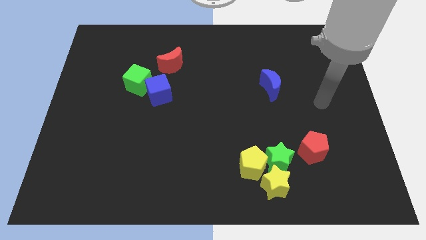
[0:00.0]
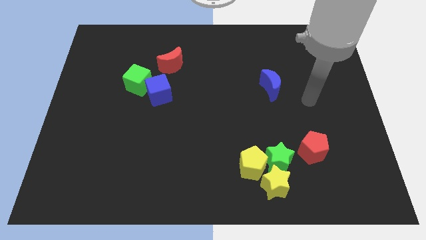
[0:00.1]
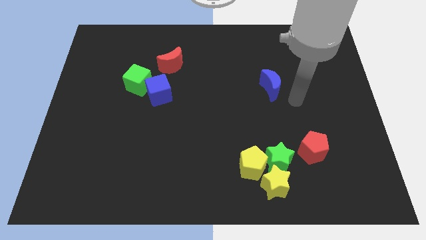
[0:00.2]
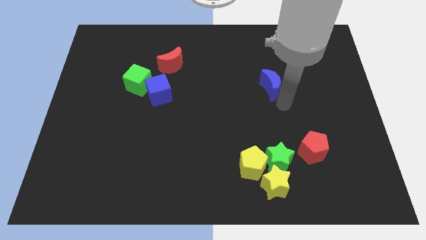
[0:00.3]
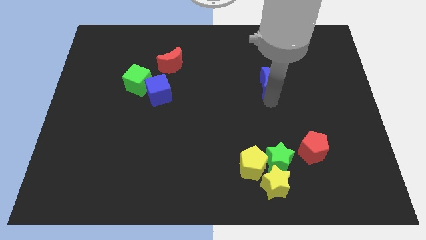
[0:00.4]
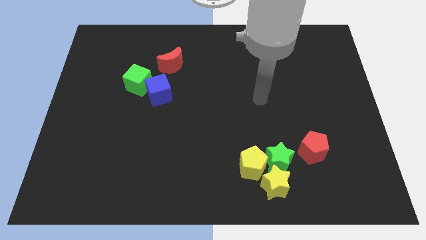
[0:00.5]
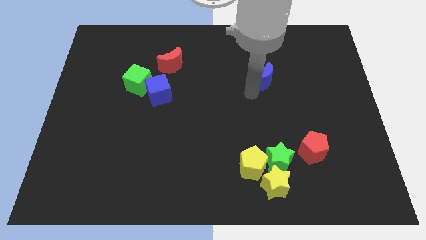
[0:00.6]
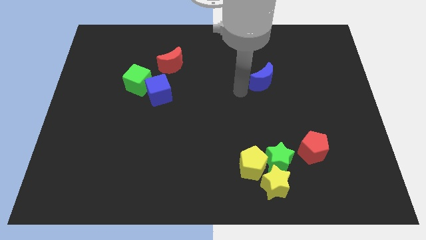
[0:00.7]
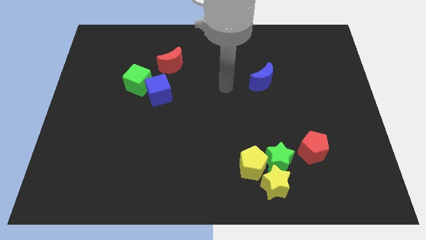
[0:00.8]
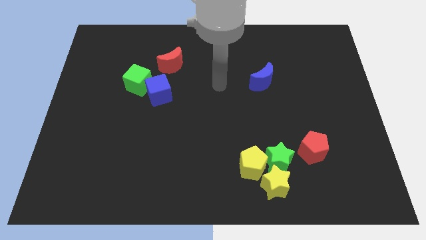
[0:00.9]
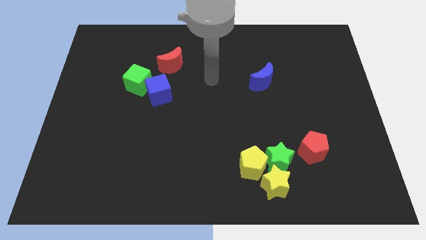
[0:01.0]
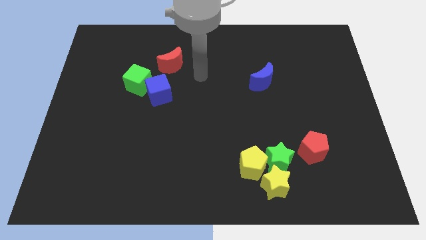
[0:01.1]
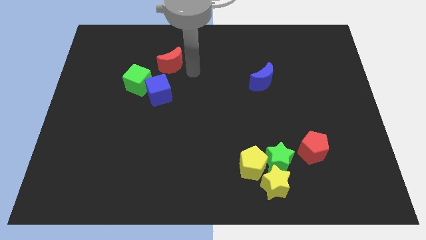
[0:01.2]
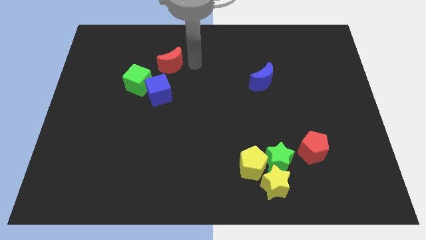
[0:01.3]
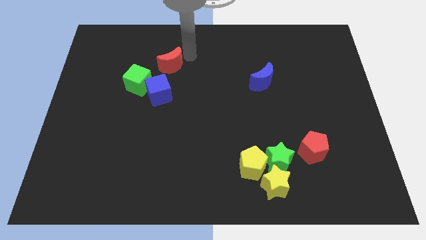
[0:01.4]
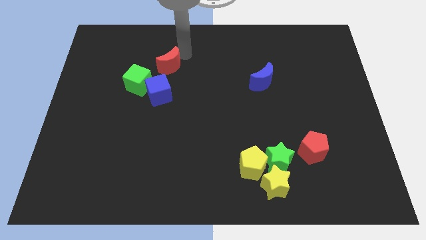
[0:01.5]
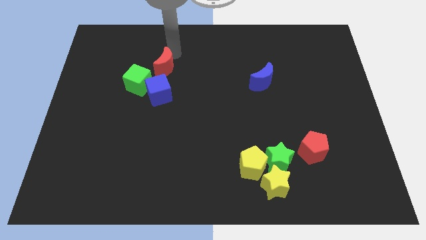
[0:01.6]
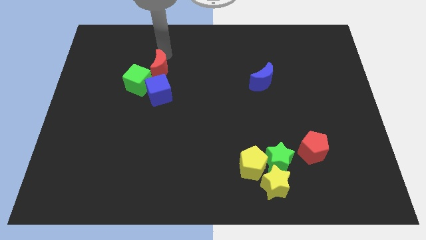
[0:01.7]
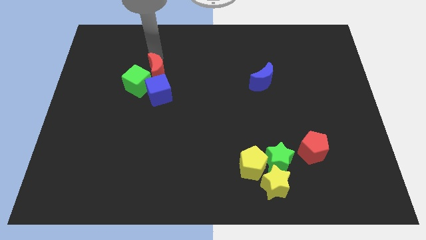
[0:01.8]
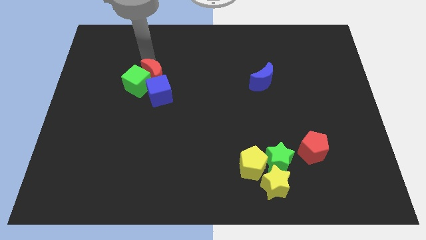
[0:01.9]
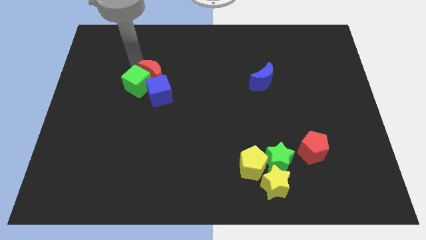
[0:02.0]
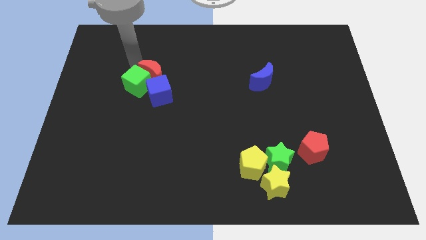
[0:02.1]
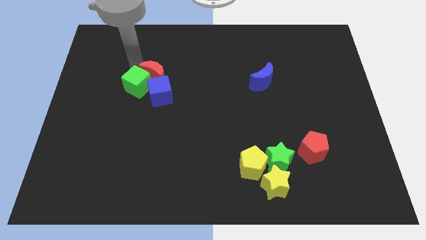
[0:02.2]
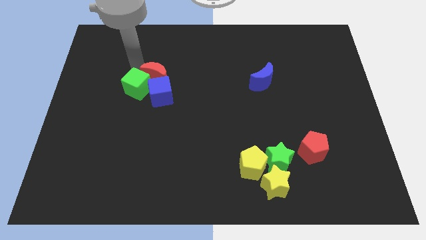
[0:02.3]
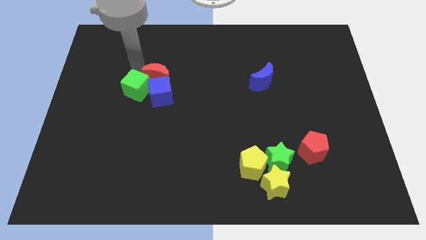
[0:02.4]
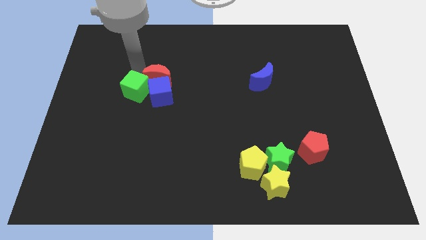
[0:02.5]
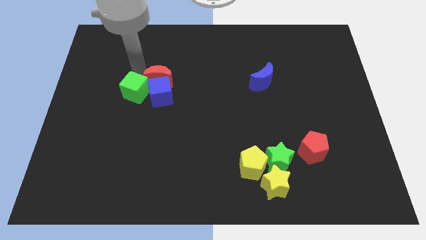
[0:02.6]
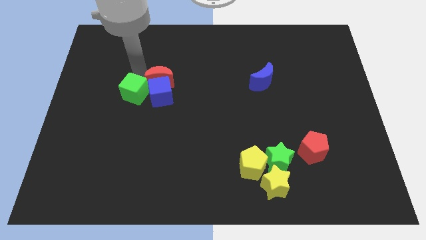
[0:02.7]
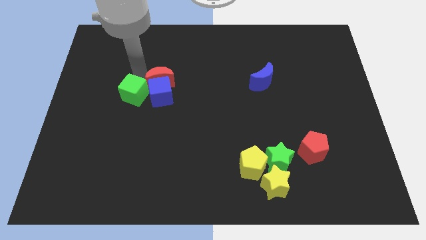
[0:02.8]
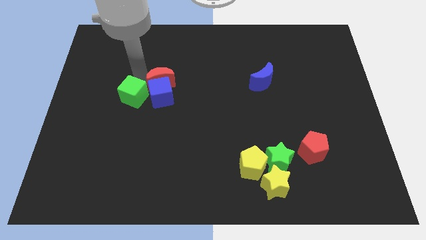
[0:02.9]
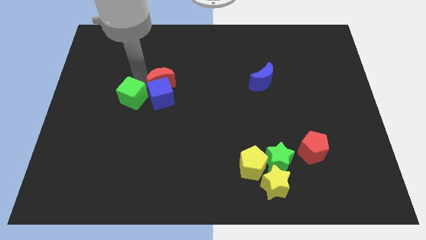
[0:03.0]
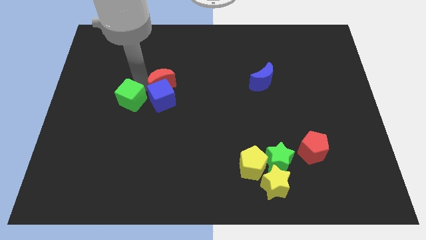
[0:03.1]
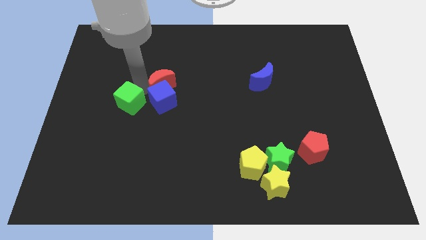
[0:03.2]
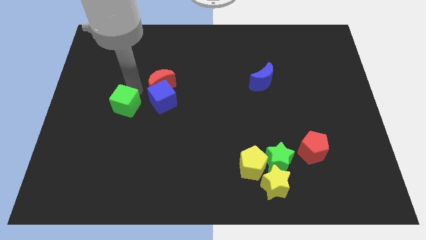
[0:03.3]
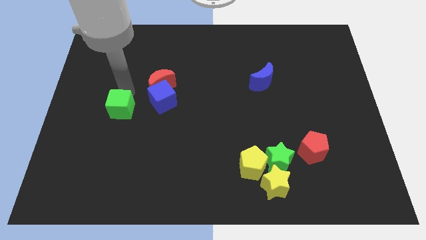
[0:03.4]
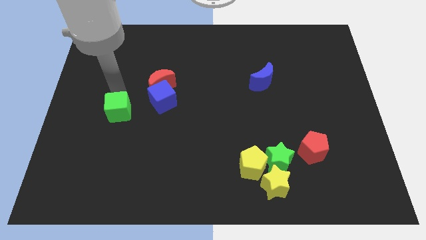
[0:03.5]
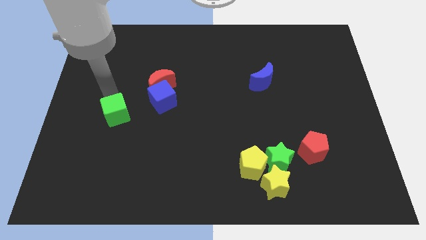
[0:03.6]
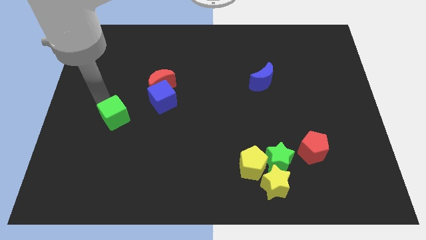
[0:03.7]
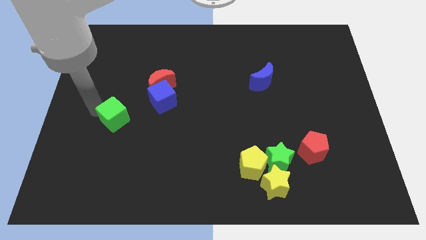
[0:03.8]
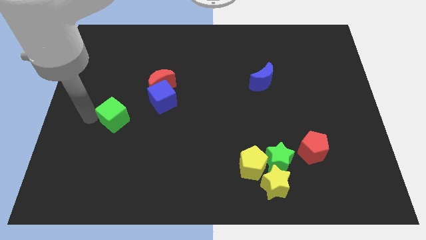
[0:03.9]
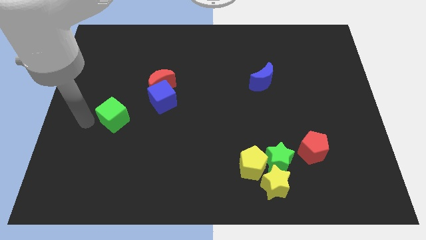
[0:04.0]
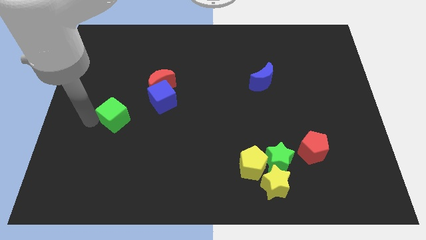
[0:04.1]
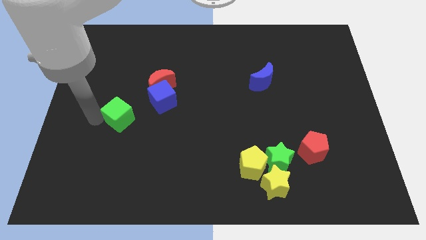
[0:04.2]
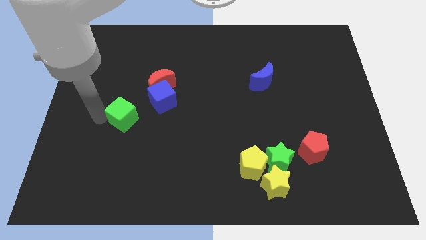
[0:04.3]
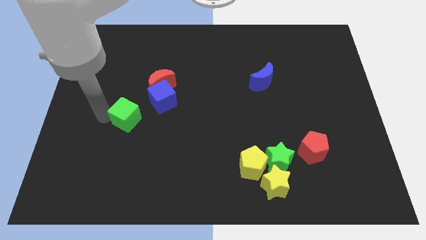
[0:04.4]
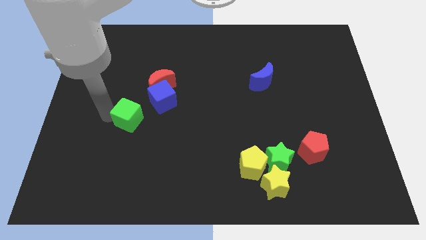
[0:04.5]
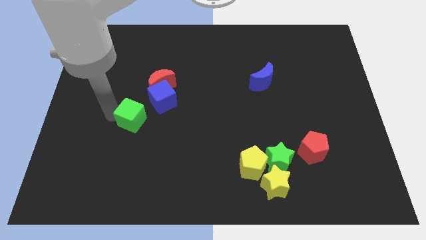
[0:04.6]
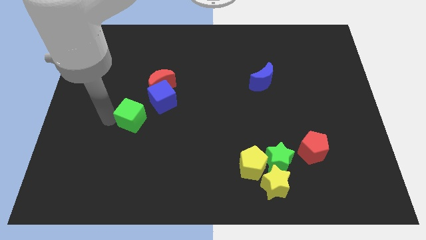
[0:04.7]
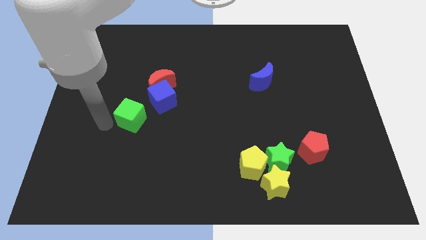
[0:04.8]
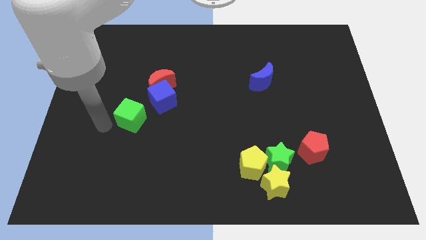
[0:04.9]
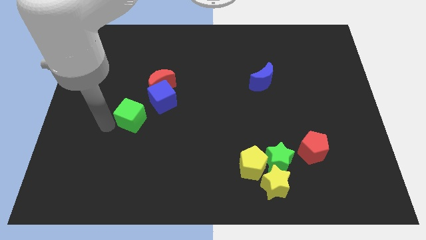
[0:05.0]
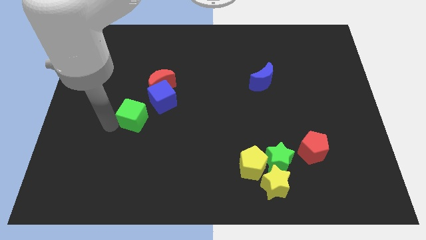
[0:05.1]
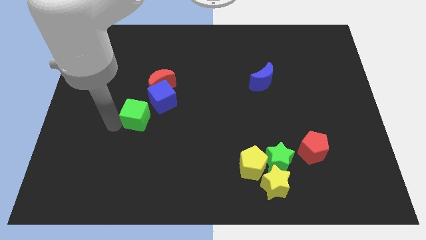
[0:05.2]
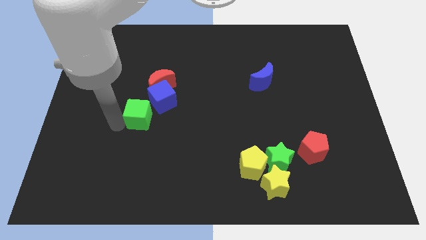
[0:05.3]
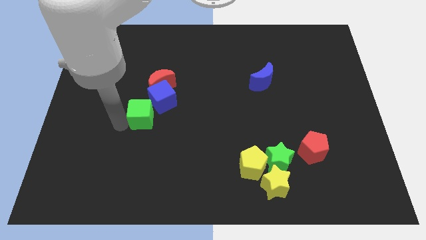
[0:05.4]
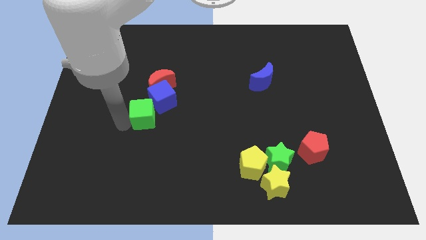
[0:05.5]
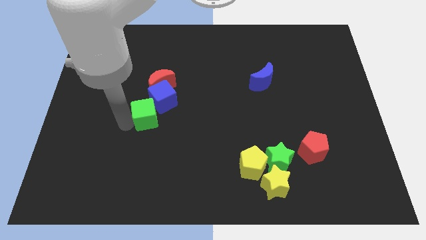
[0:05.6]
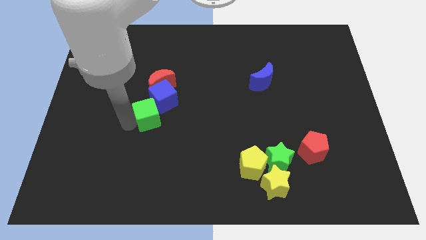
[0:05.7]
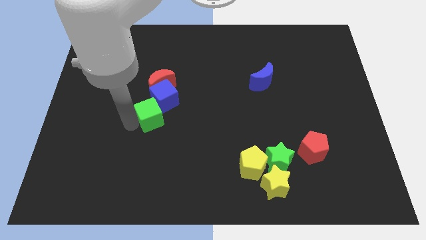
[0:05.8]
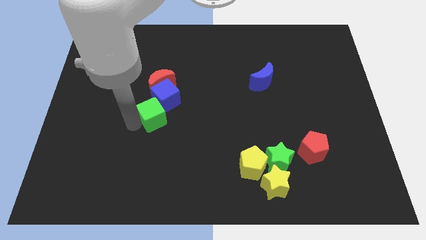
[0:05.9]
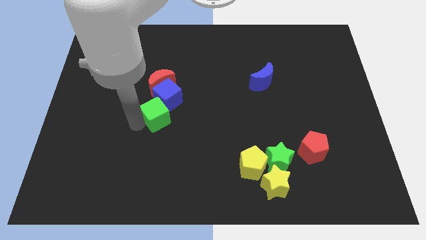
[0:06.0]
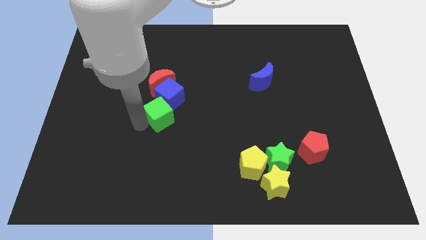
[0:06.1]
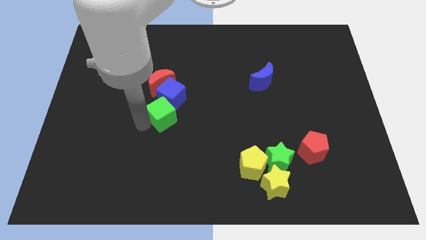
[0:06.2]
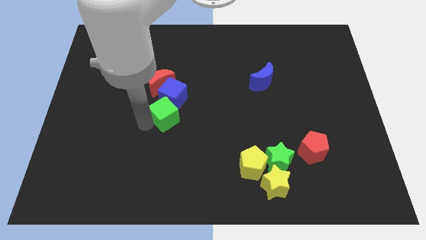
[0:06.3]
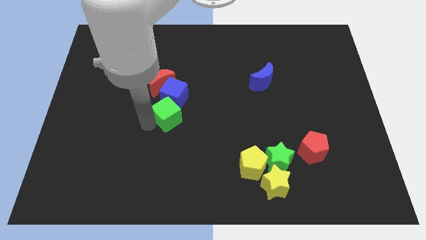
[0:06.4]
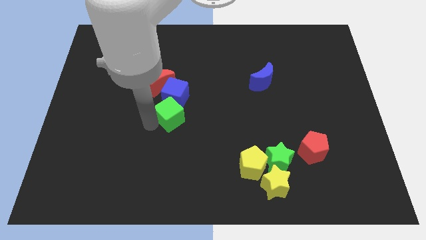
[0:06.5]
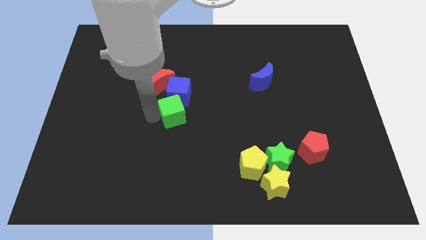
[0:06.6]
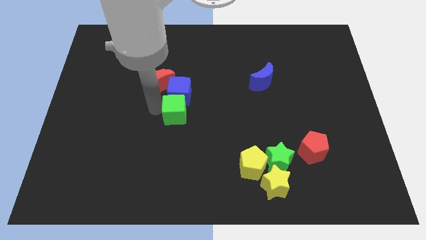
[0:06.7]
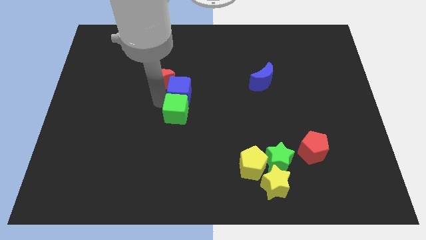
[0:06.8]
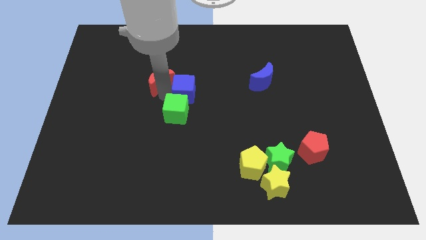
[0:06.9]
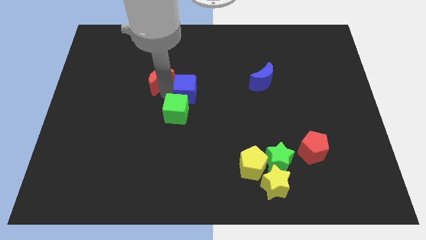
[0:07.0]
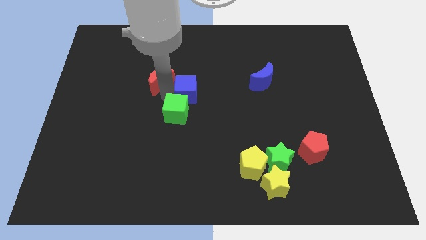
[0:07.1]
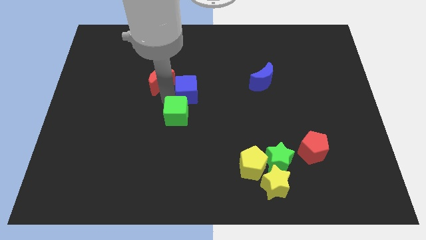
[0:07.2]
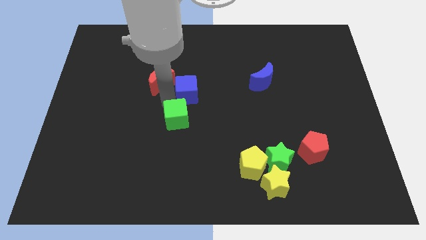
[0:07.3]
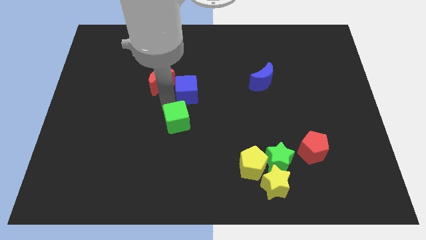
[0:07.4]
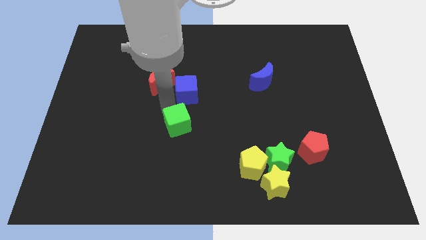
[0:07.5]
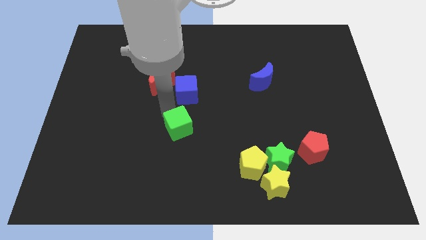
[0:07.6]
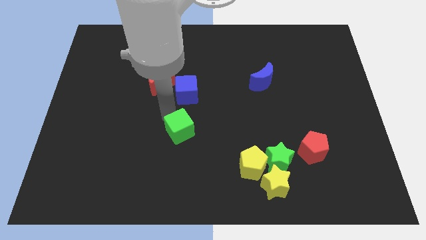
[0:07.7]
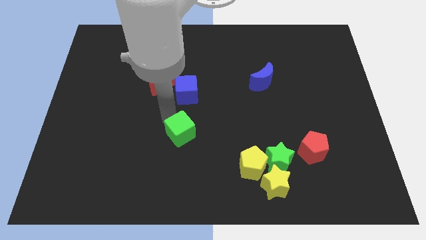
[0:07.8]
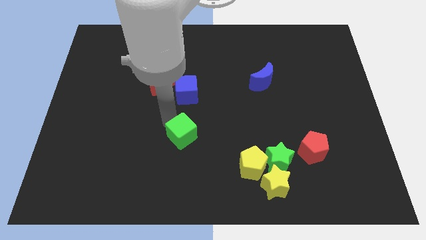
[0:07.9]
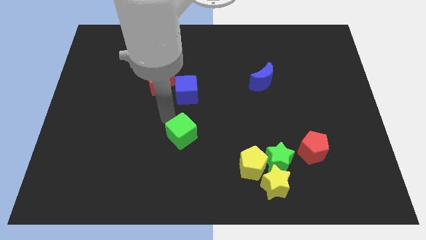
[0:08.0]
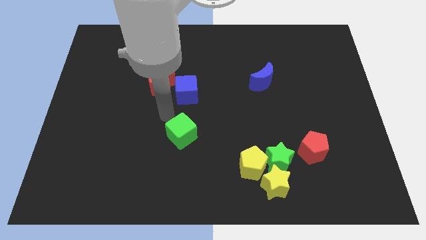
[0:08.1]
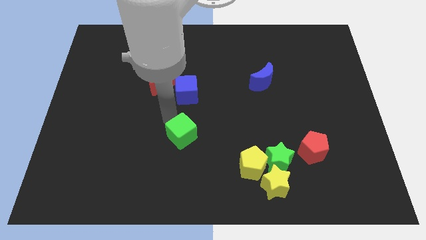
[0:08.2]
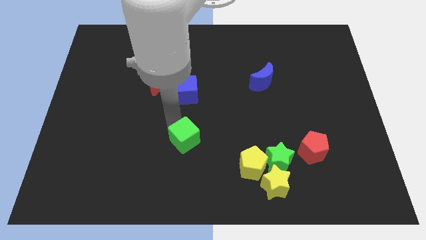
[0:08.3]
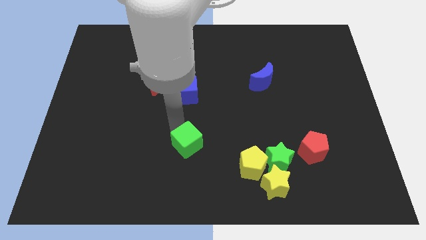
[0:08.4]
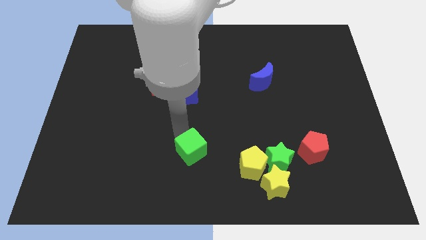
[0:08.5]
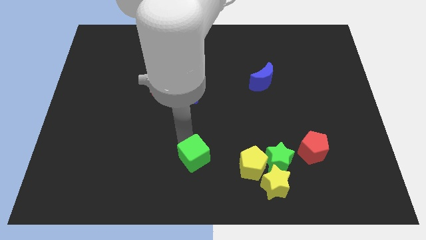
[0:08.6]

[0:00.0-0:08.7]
slide the green cube to the bottom
